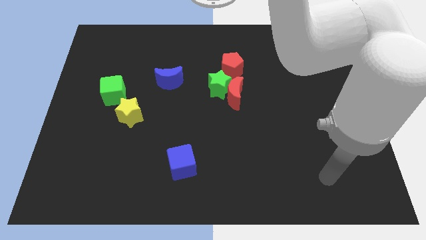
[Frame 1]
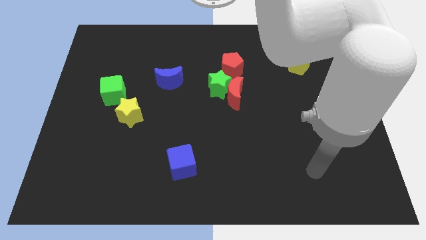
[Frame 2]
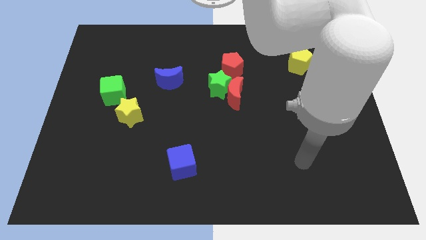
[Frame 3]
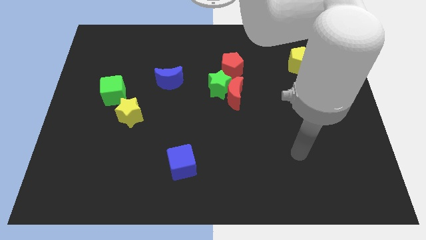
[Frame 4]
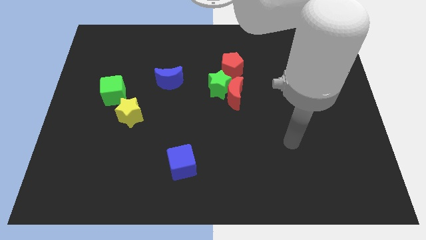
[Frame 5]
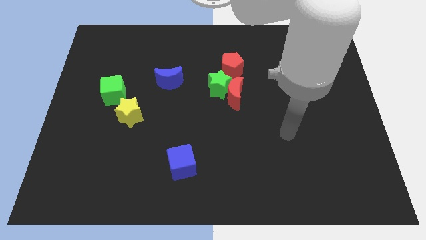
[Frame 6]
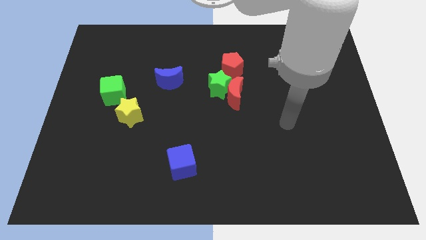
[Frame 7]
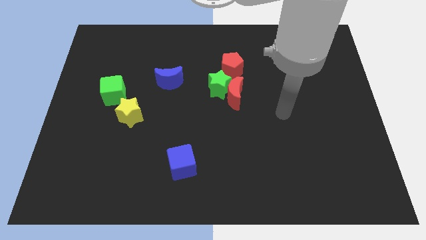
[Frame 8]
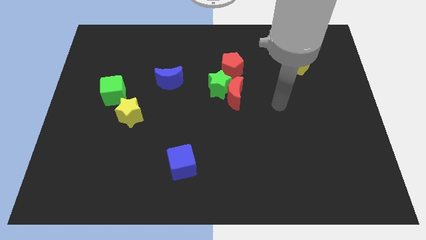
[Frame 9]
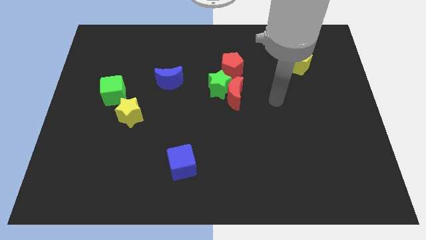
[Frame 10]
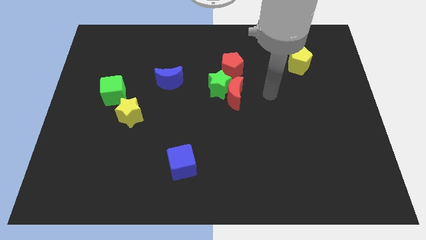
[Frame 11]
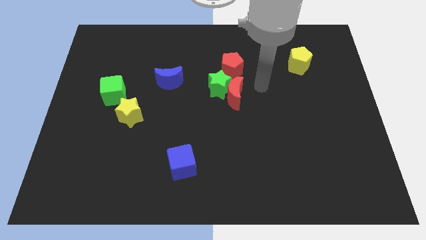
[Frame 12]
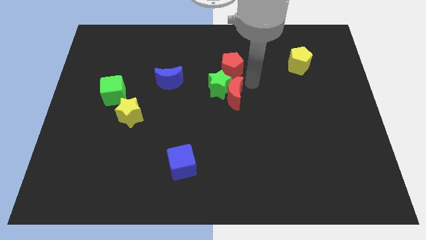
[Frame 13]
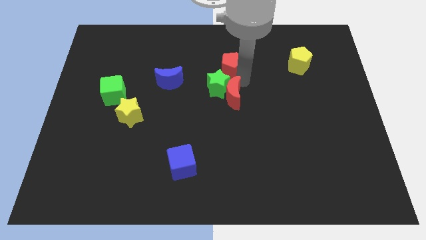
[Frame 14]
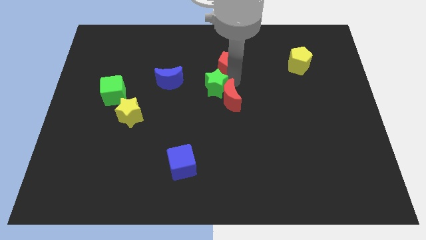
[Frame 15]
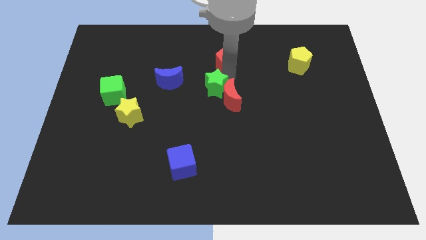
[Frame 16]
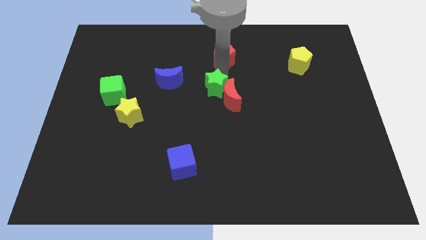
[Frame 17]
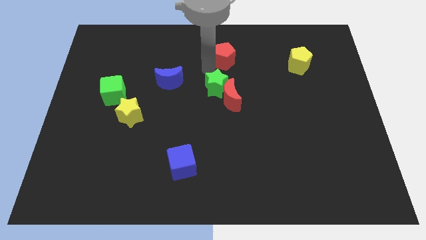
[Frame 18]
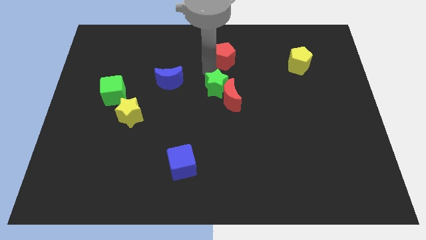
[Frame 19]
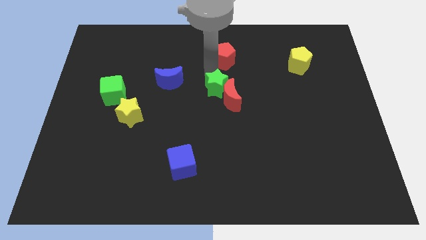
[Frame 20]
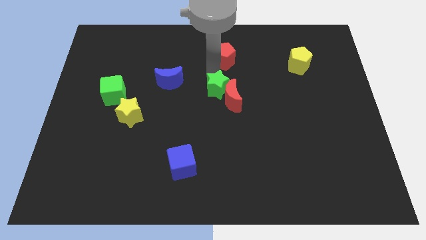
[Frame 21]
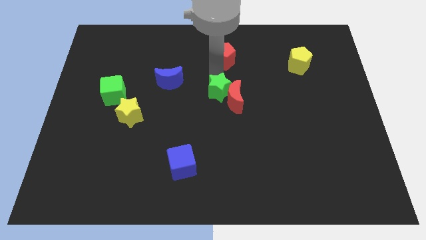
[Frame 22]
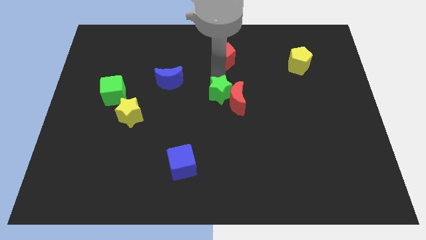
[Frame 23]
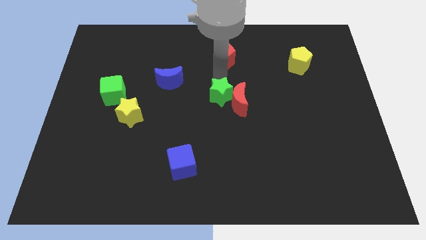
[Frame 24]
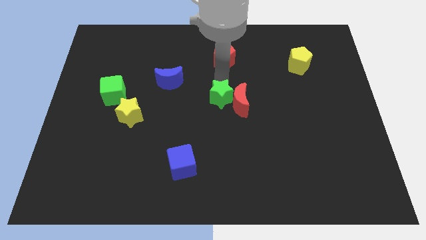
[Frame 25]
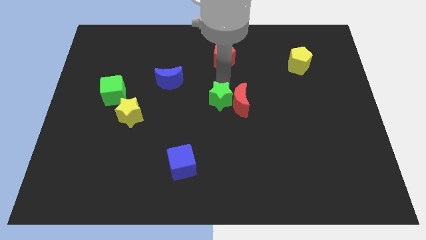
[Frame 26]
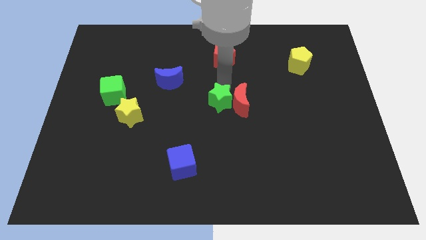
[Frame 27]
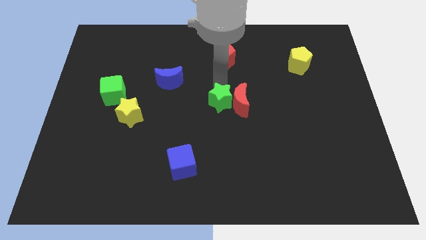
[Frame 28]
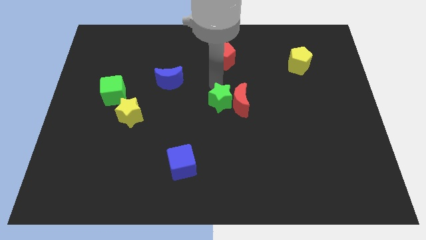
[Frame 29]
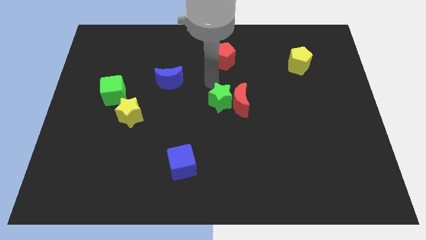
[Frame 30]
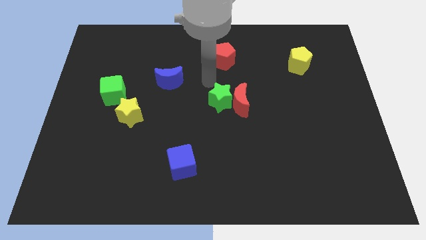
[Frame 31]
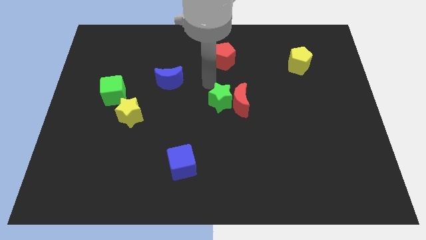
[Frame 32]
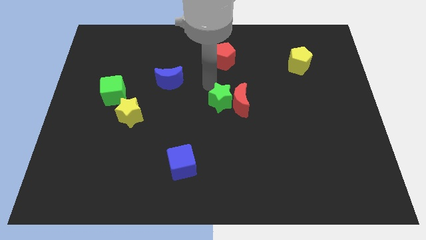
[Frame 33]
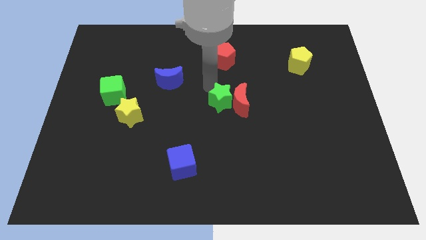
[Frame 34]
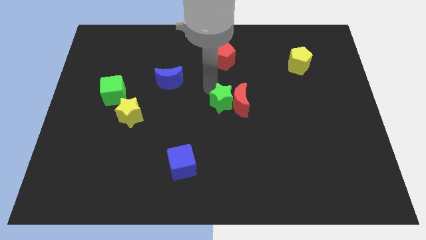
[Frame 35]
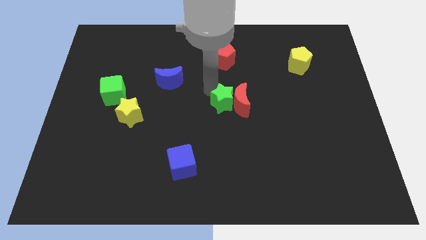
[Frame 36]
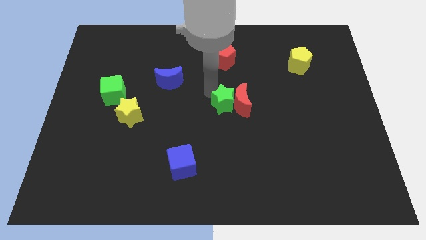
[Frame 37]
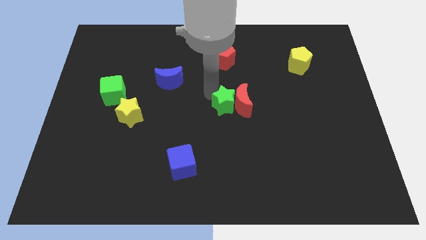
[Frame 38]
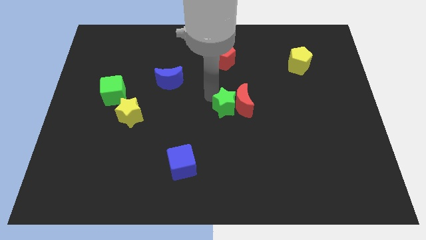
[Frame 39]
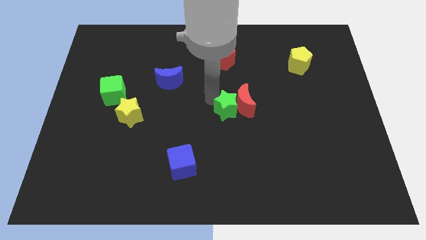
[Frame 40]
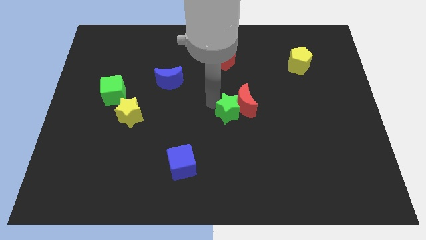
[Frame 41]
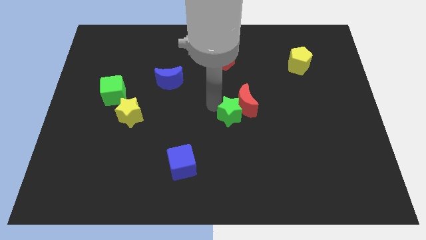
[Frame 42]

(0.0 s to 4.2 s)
move the green star below the red moon

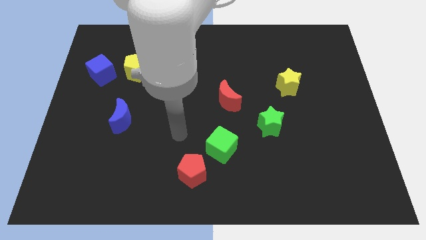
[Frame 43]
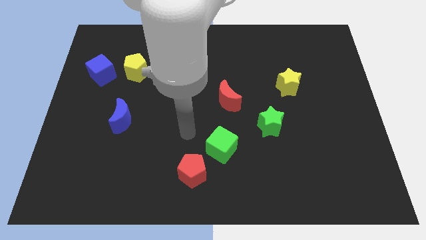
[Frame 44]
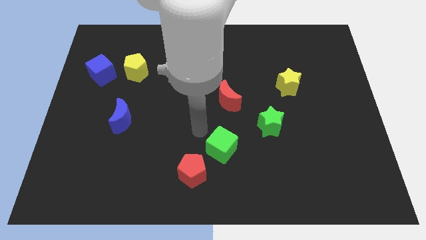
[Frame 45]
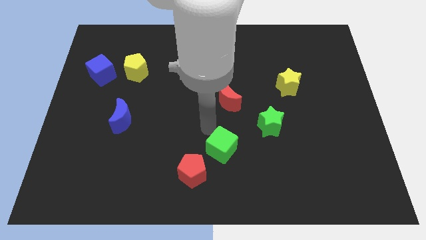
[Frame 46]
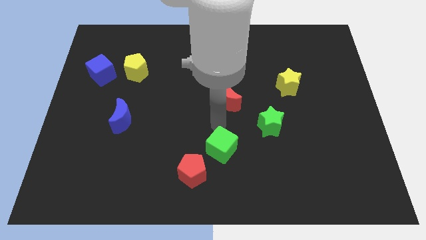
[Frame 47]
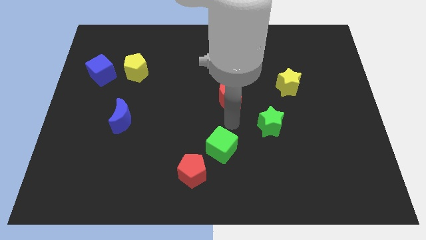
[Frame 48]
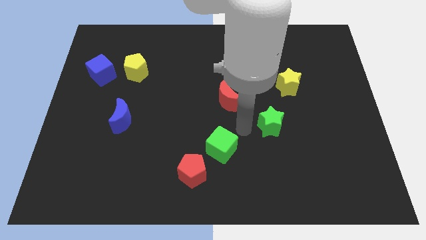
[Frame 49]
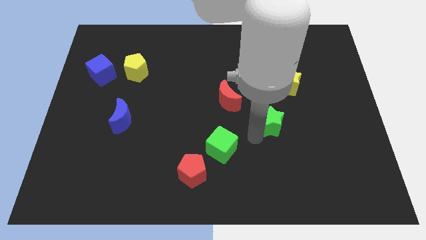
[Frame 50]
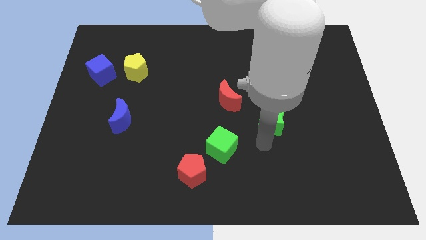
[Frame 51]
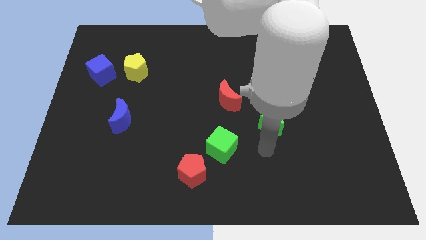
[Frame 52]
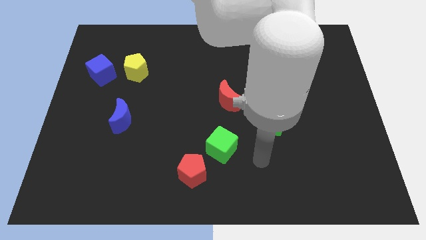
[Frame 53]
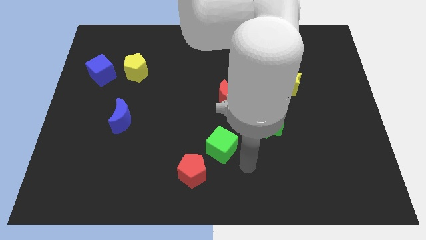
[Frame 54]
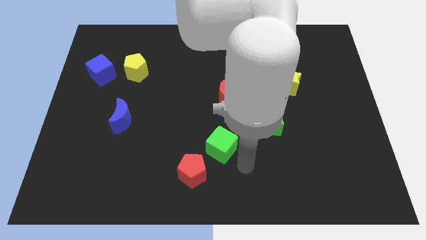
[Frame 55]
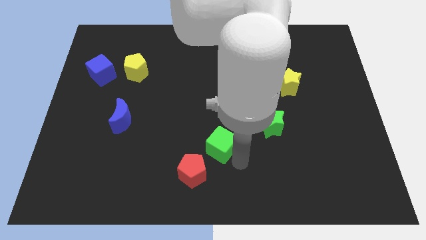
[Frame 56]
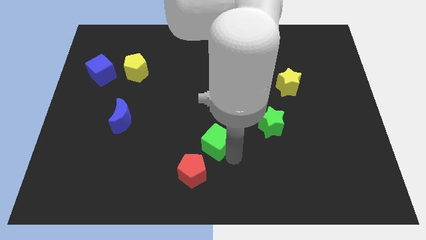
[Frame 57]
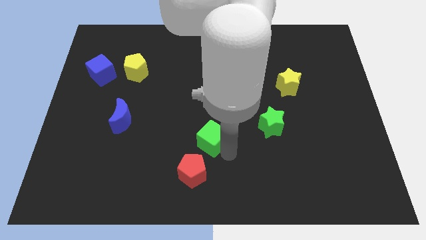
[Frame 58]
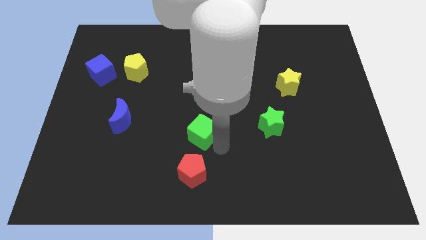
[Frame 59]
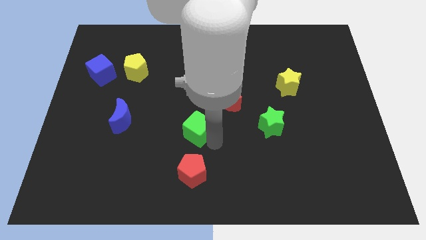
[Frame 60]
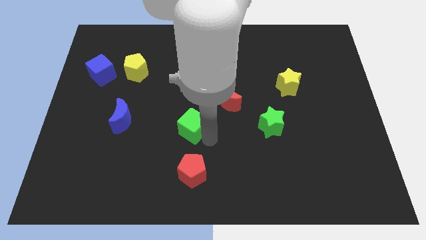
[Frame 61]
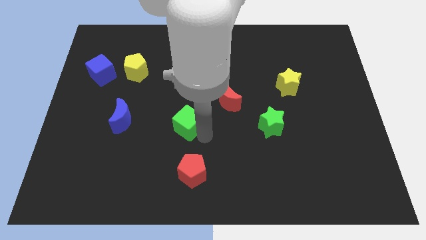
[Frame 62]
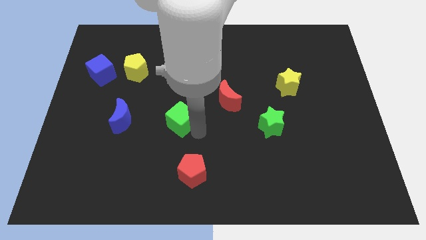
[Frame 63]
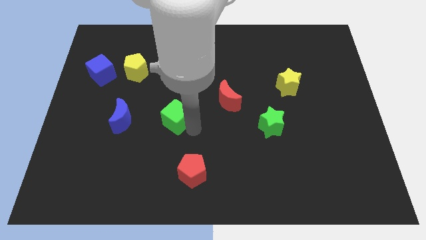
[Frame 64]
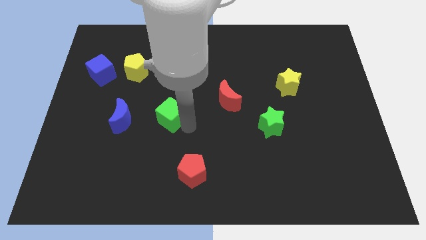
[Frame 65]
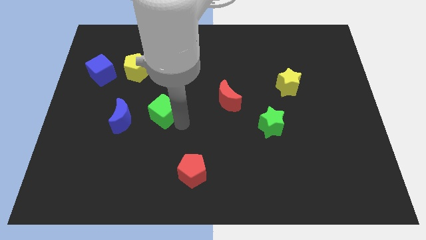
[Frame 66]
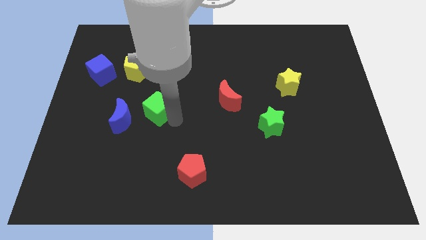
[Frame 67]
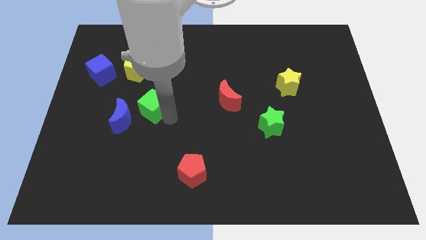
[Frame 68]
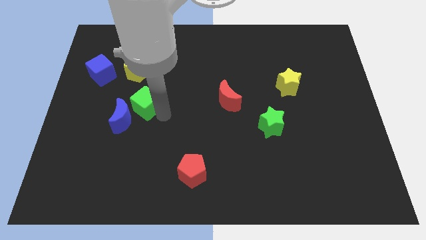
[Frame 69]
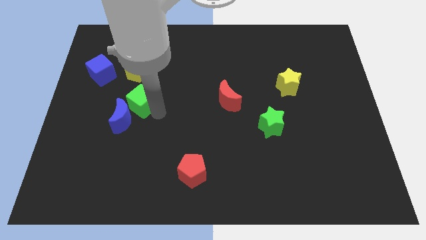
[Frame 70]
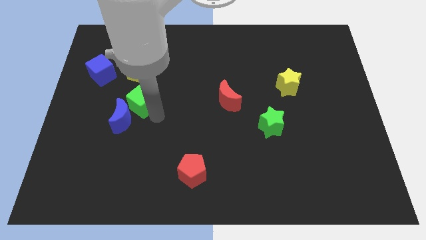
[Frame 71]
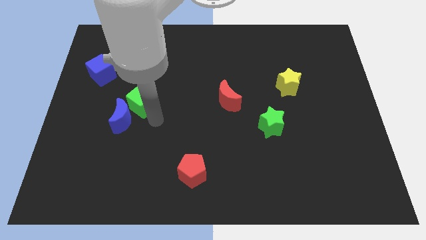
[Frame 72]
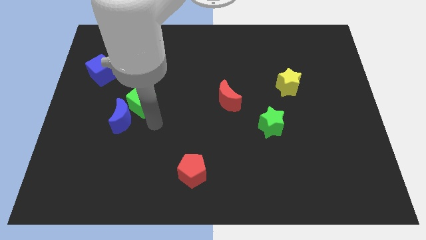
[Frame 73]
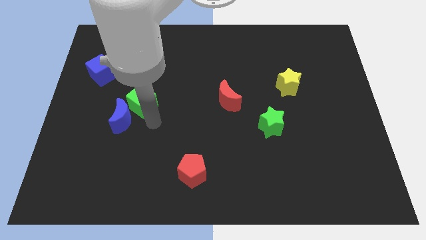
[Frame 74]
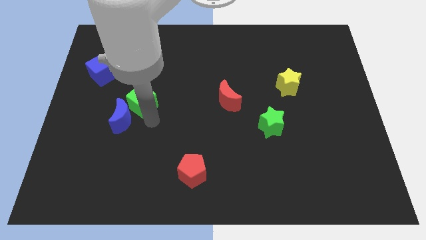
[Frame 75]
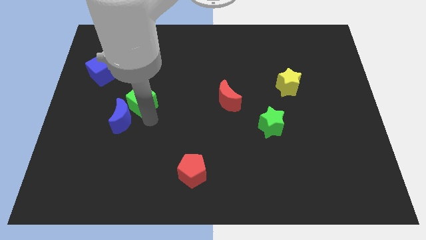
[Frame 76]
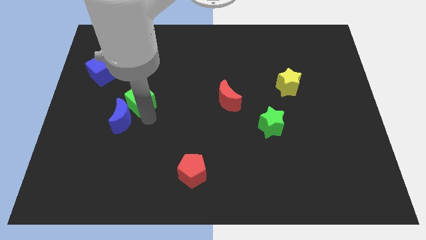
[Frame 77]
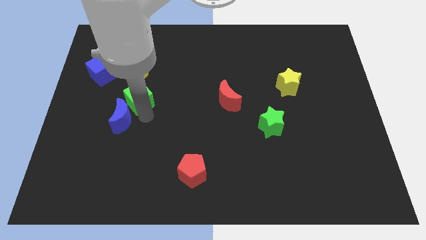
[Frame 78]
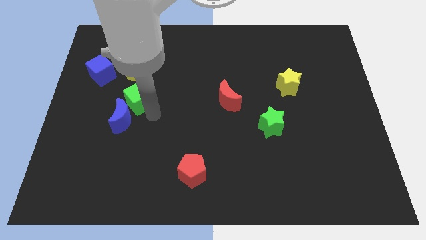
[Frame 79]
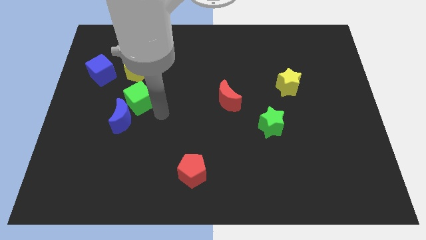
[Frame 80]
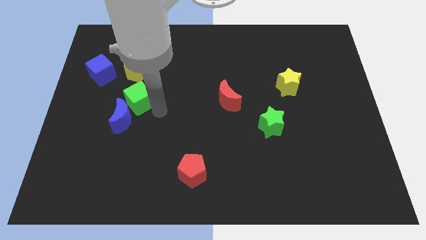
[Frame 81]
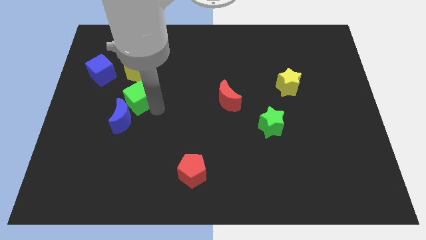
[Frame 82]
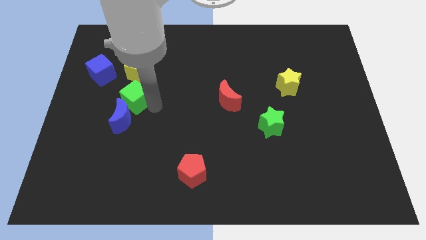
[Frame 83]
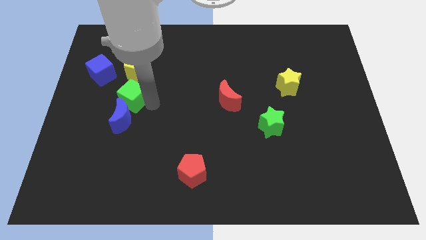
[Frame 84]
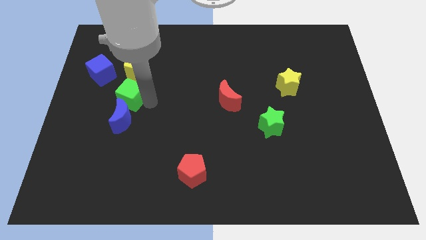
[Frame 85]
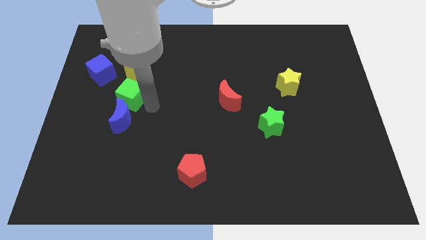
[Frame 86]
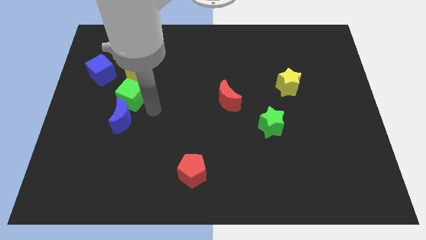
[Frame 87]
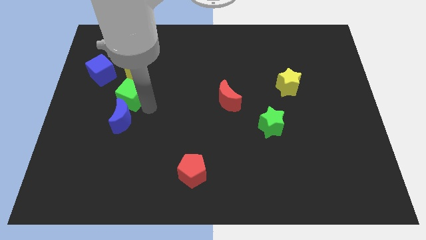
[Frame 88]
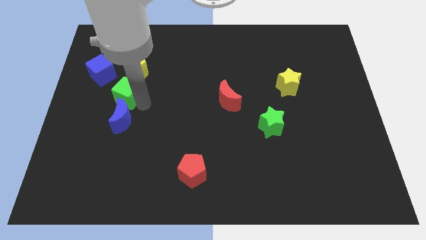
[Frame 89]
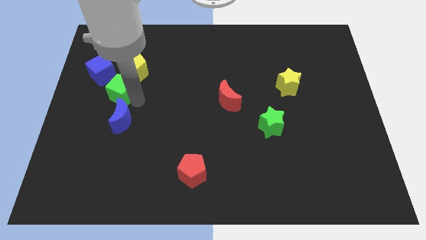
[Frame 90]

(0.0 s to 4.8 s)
put the green cube to the bottom left of the yellow pentagon
